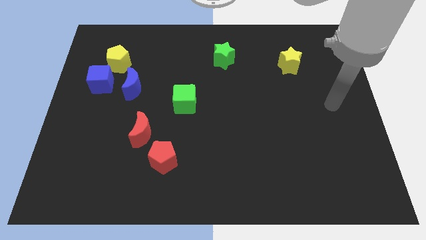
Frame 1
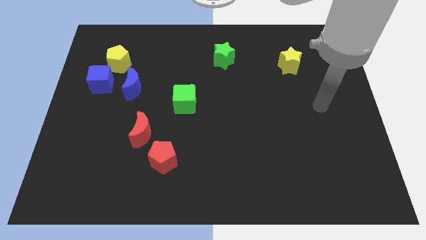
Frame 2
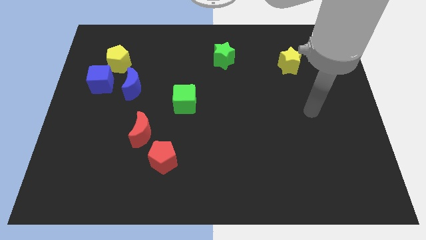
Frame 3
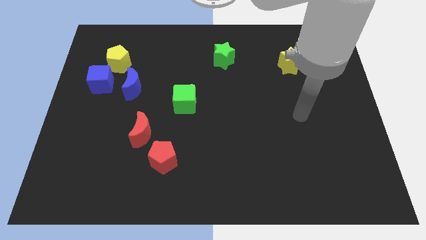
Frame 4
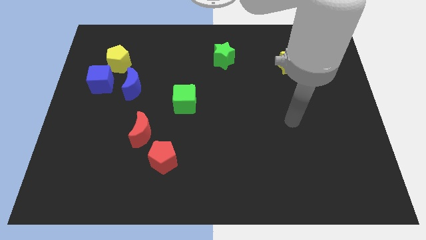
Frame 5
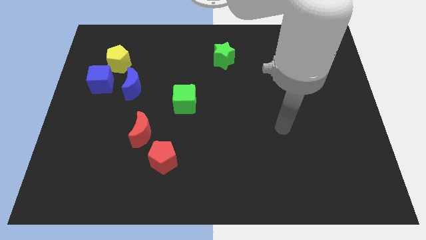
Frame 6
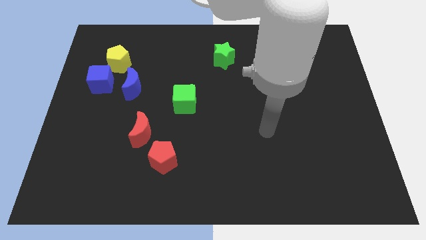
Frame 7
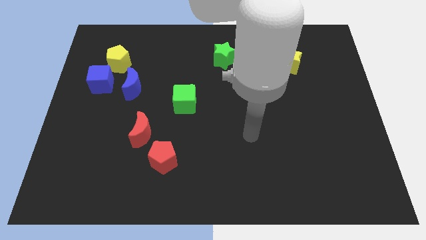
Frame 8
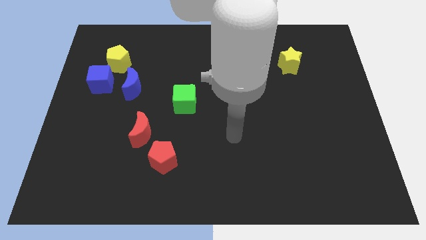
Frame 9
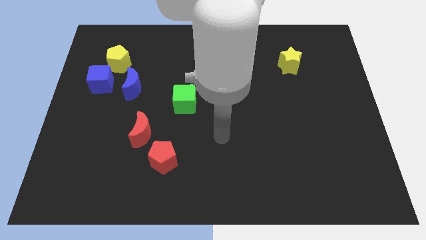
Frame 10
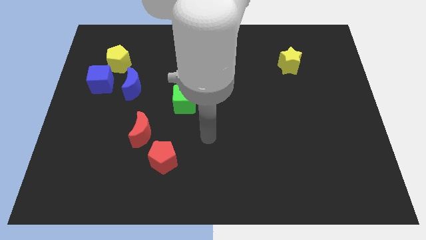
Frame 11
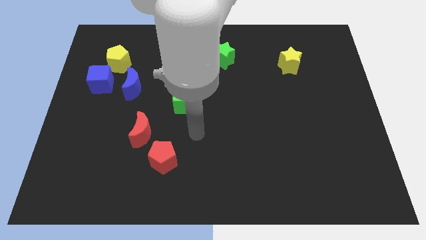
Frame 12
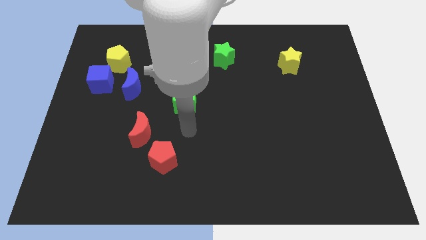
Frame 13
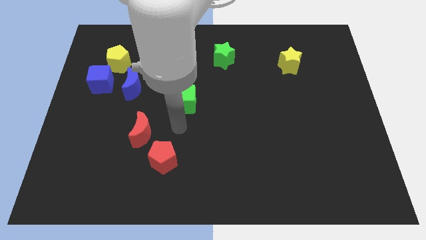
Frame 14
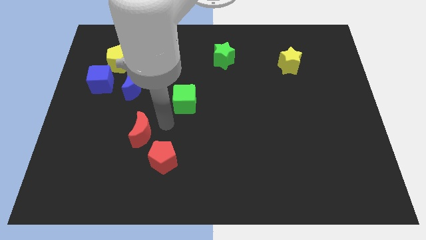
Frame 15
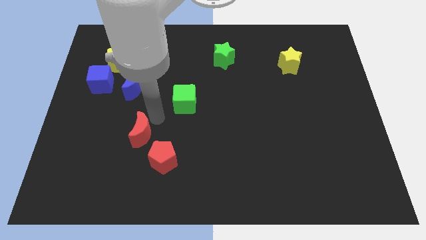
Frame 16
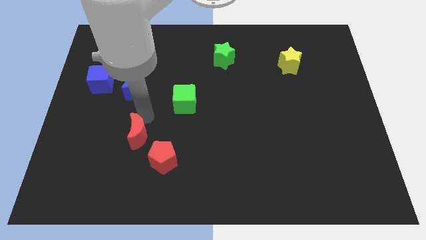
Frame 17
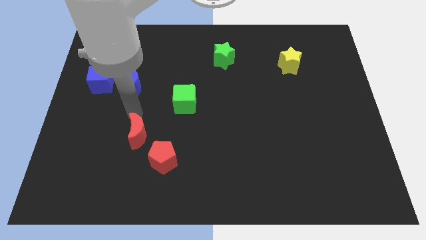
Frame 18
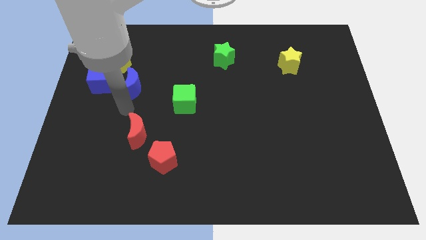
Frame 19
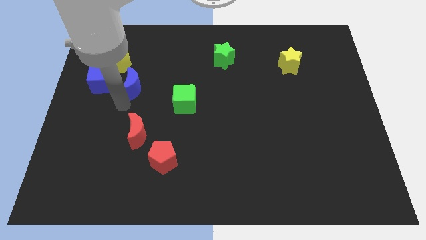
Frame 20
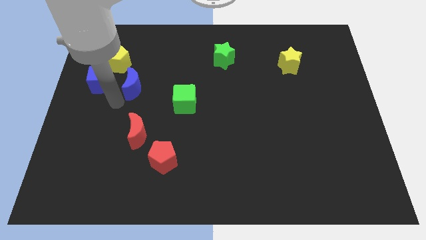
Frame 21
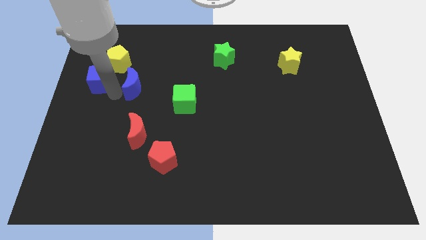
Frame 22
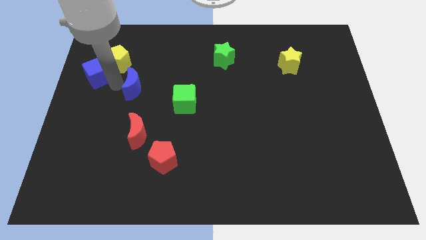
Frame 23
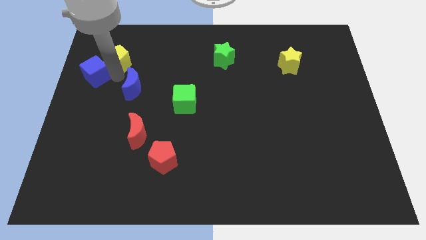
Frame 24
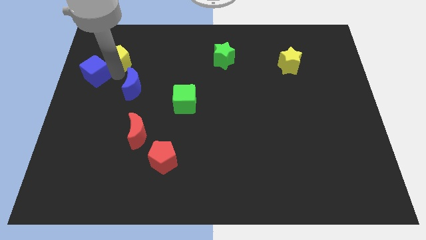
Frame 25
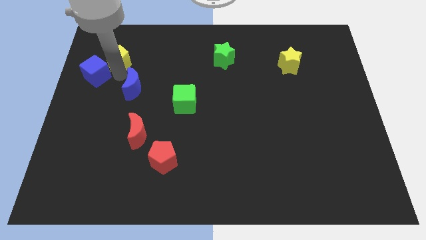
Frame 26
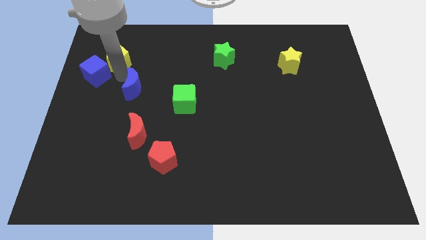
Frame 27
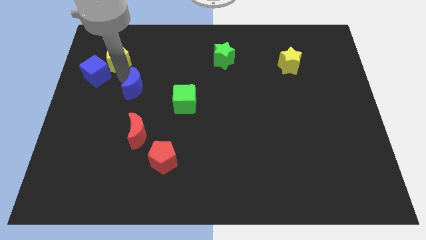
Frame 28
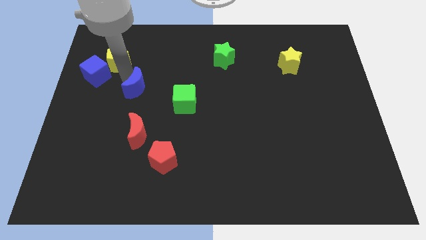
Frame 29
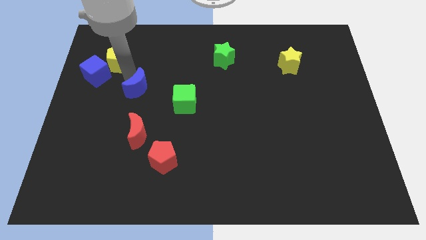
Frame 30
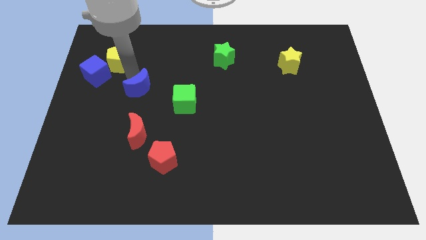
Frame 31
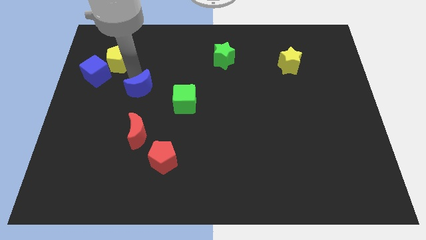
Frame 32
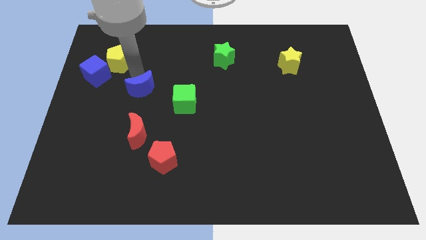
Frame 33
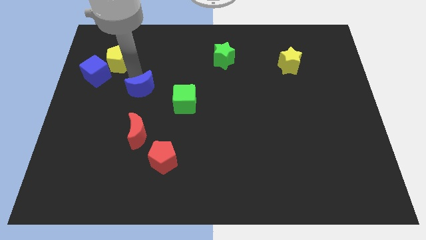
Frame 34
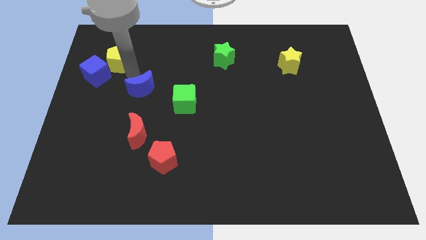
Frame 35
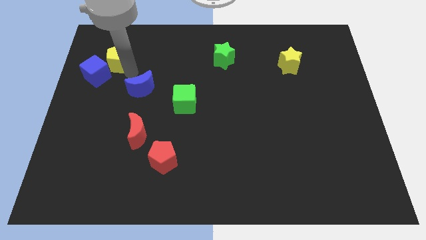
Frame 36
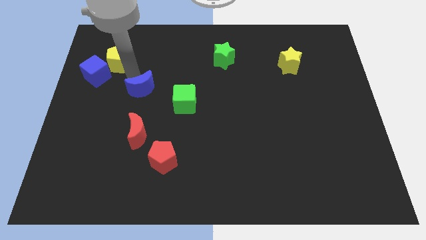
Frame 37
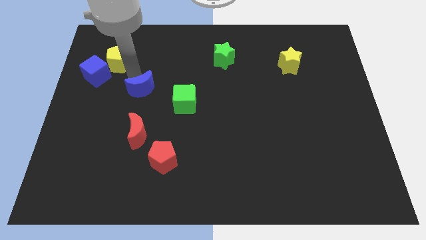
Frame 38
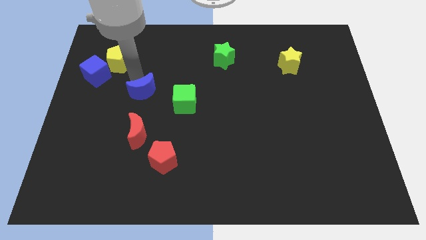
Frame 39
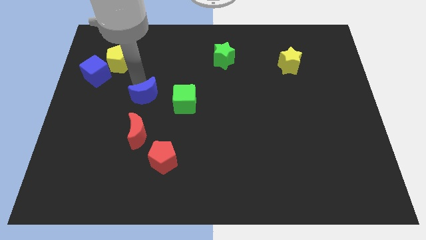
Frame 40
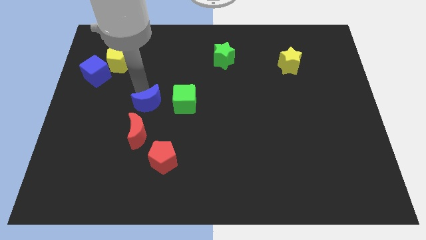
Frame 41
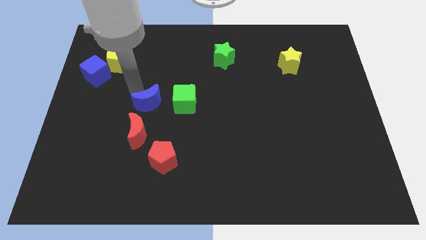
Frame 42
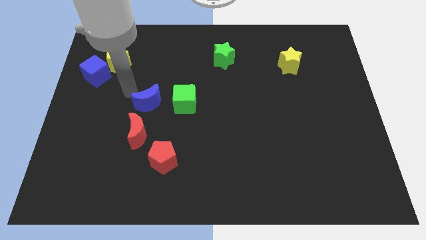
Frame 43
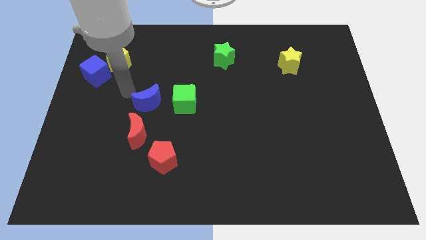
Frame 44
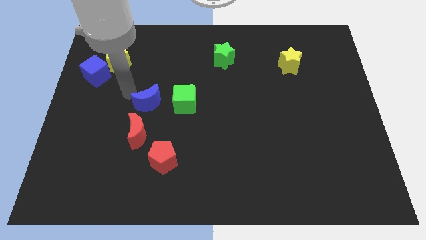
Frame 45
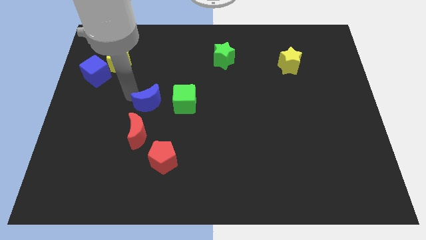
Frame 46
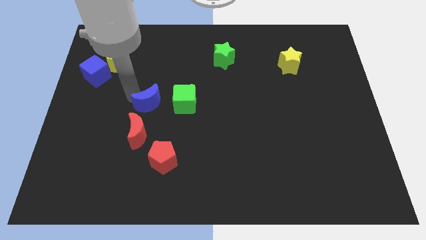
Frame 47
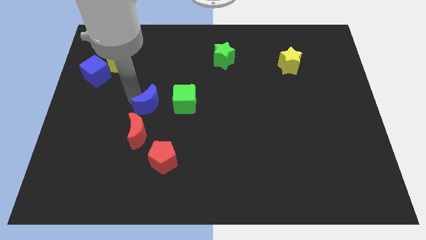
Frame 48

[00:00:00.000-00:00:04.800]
slightly move the blue moon down and to the right

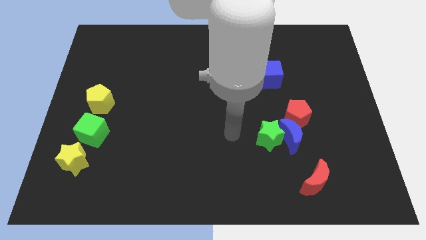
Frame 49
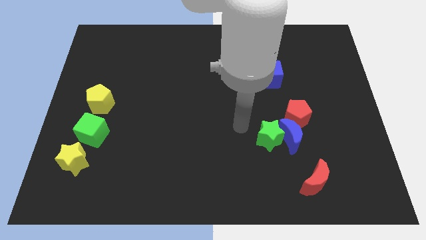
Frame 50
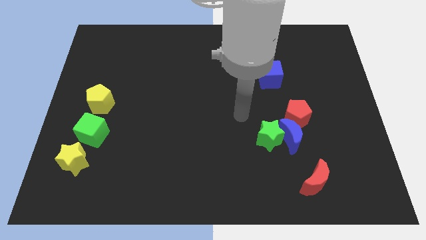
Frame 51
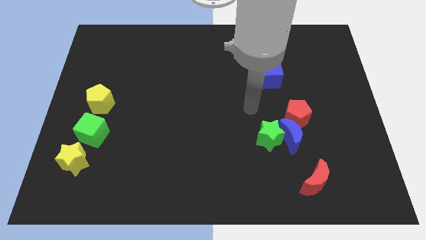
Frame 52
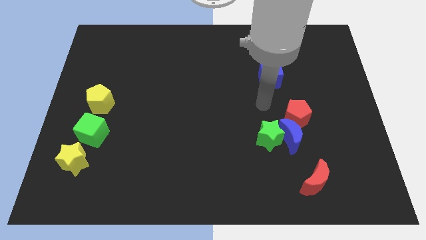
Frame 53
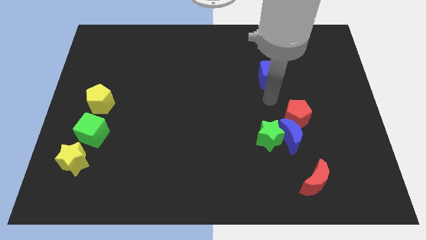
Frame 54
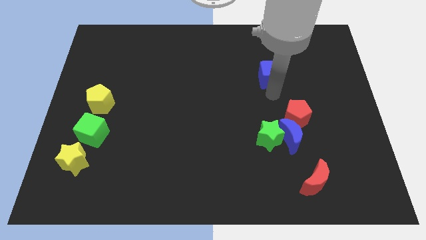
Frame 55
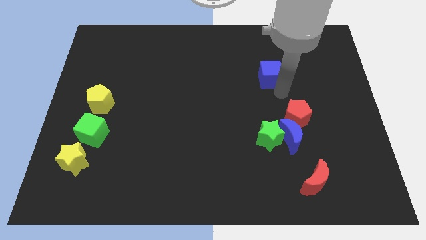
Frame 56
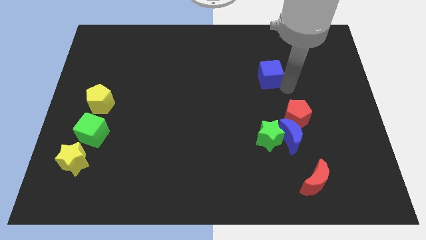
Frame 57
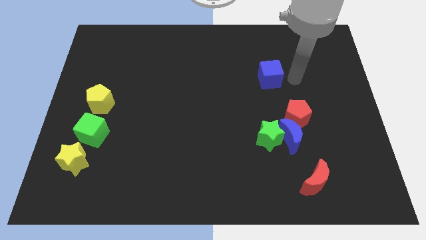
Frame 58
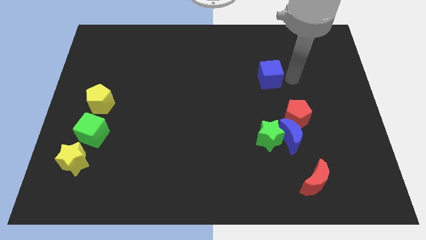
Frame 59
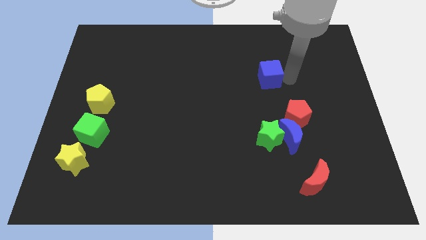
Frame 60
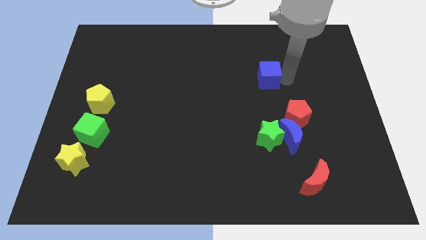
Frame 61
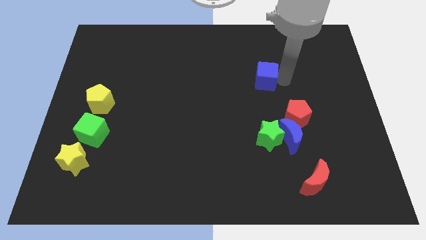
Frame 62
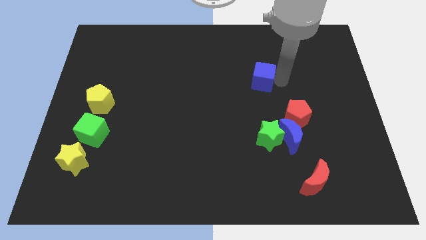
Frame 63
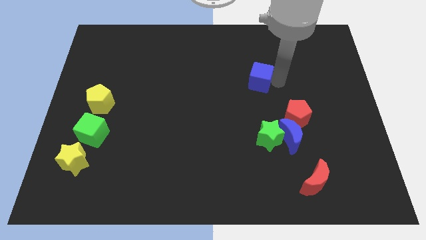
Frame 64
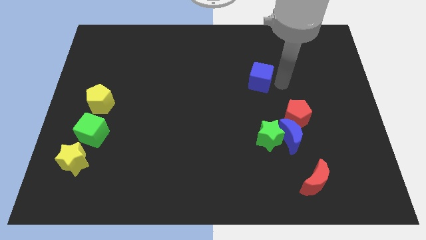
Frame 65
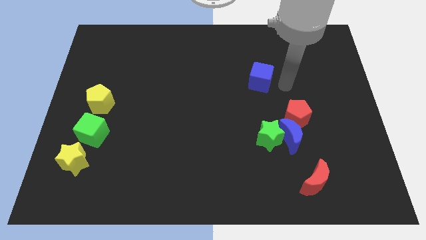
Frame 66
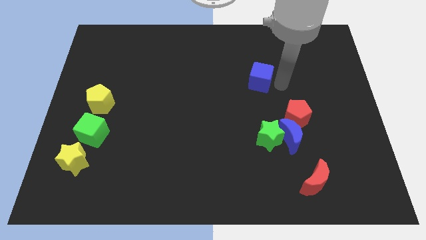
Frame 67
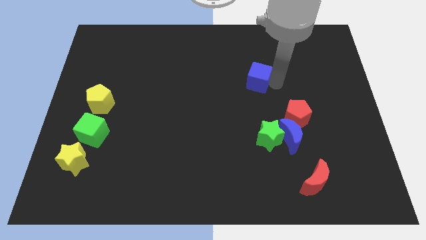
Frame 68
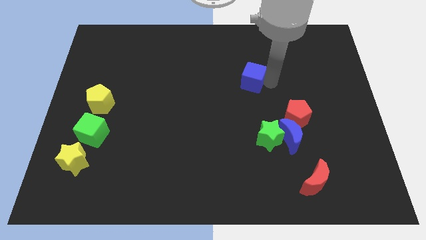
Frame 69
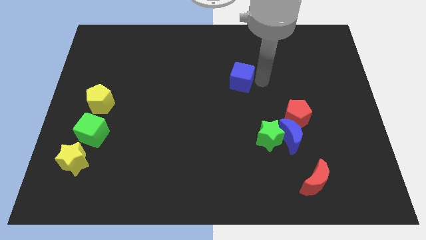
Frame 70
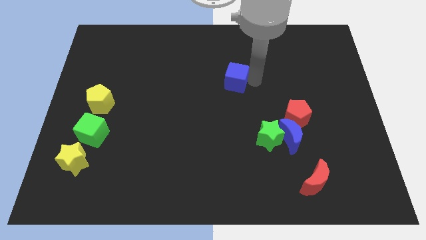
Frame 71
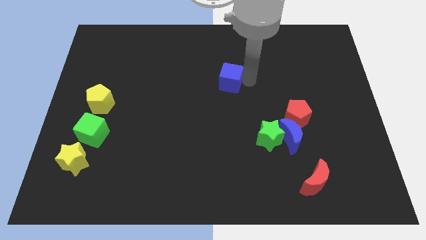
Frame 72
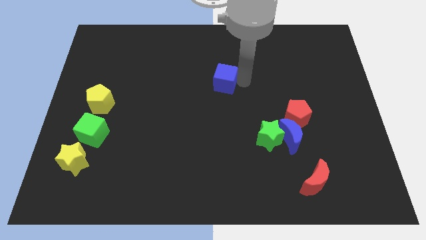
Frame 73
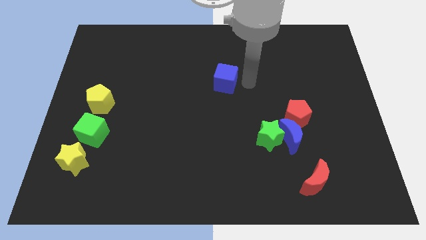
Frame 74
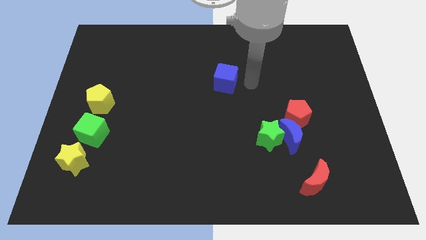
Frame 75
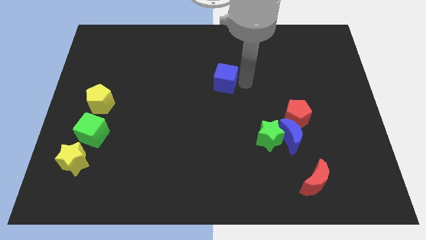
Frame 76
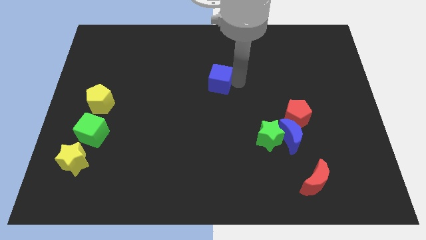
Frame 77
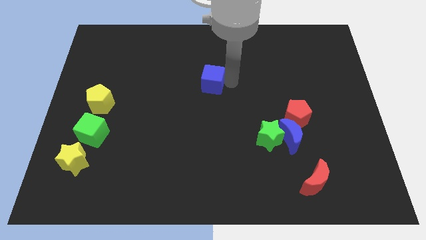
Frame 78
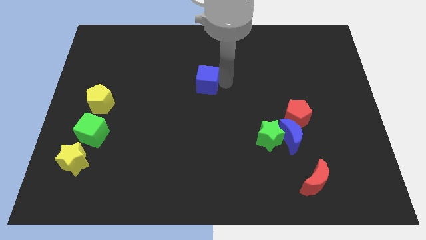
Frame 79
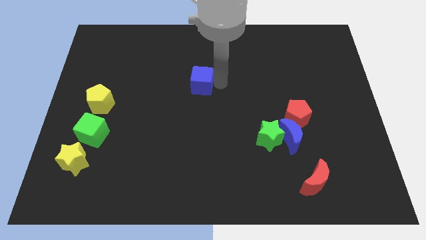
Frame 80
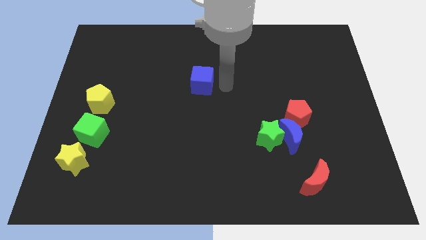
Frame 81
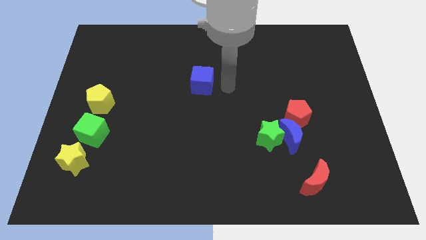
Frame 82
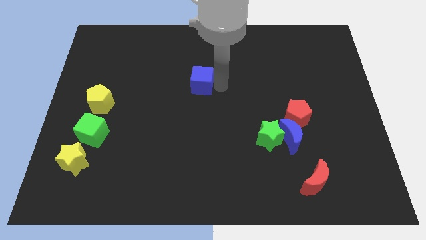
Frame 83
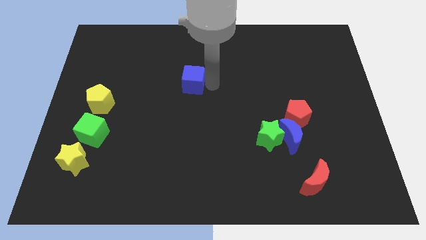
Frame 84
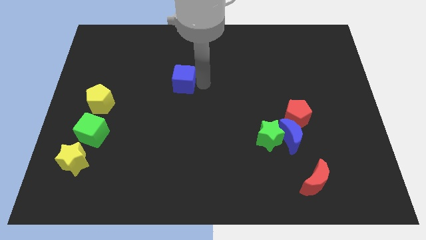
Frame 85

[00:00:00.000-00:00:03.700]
slide the blue cube left
